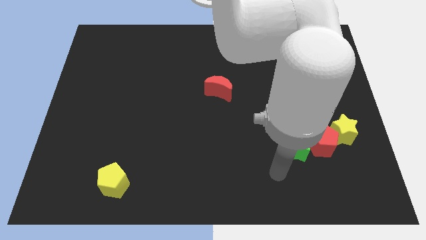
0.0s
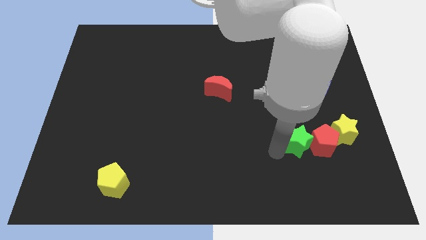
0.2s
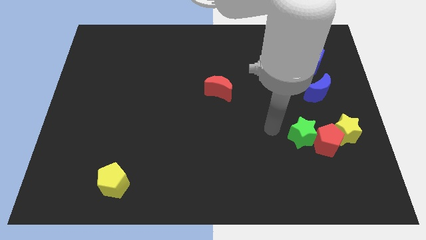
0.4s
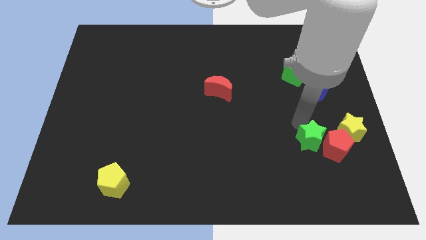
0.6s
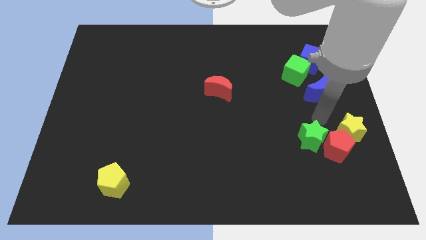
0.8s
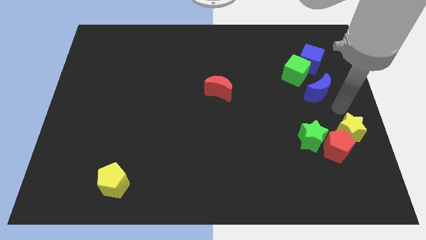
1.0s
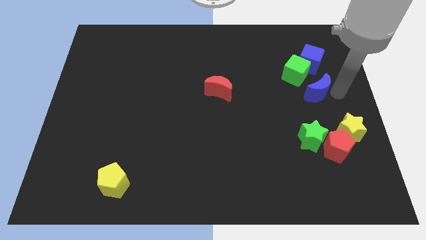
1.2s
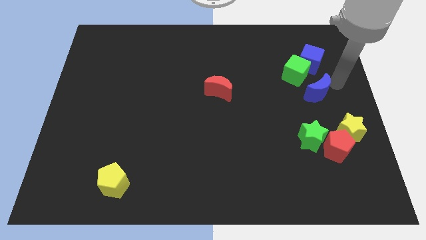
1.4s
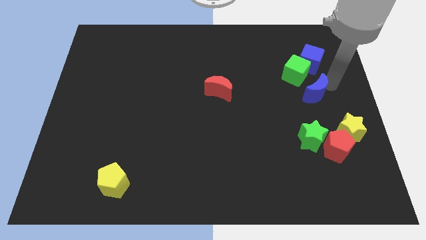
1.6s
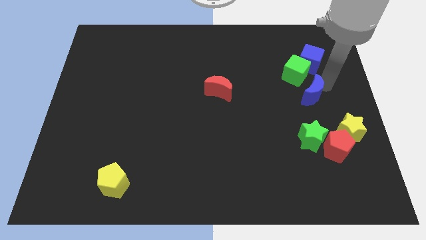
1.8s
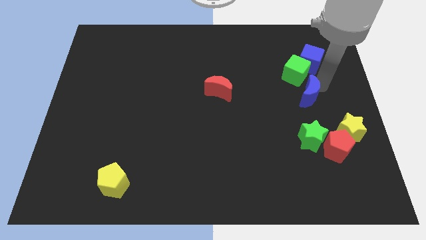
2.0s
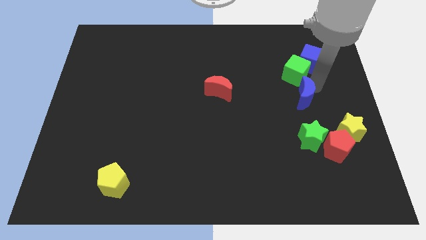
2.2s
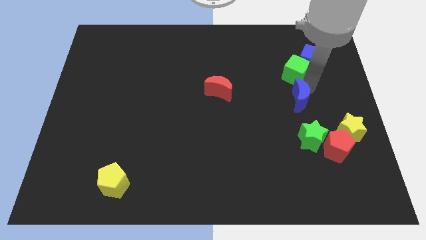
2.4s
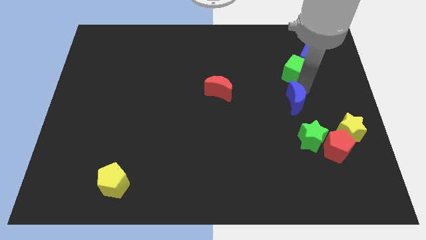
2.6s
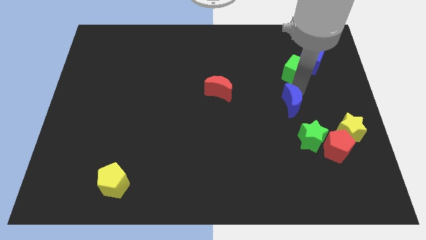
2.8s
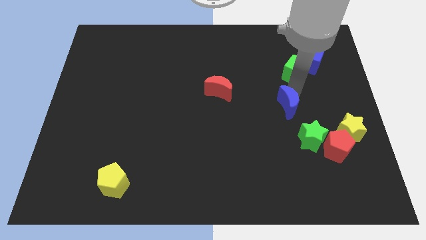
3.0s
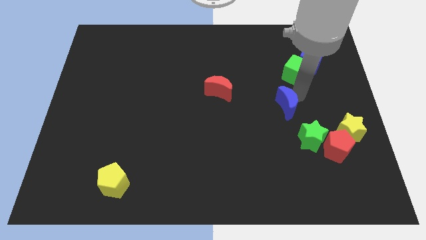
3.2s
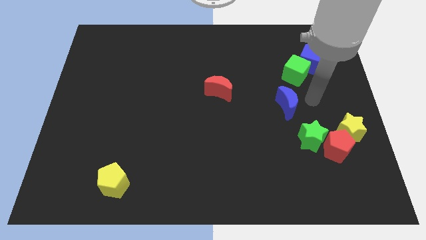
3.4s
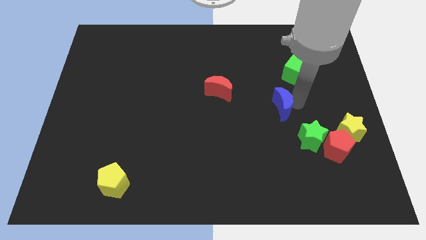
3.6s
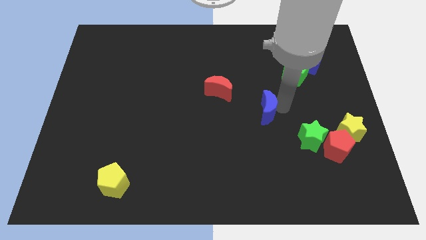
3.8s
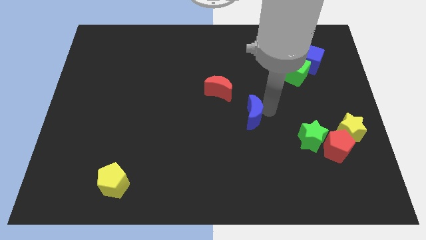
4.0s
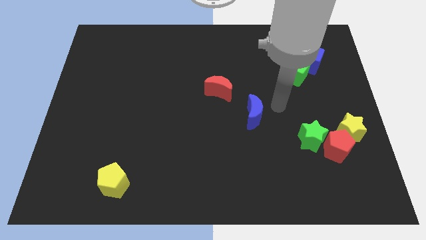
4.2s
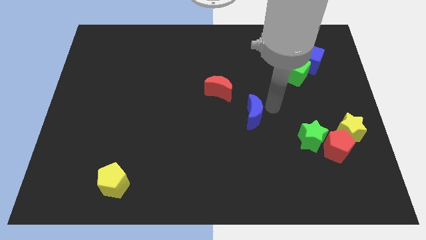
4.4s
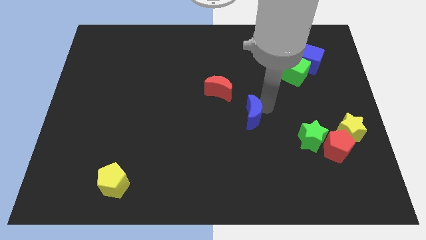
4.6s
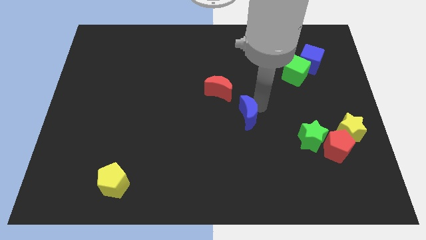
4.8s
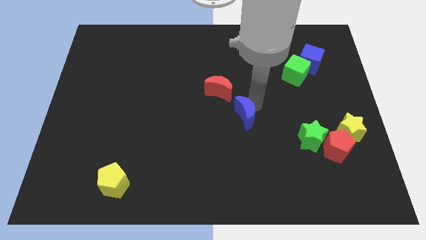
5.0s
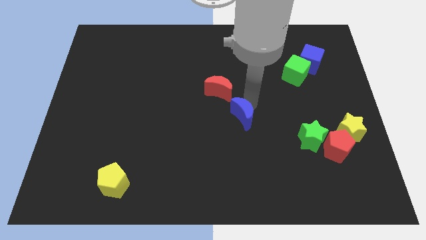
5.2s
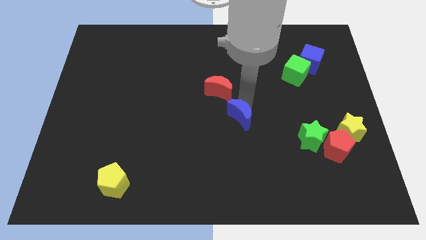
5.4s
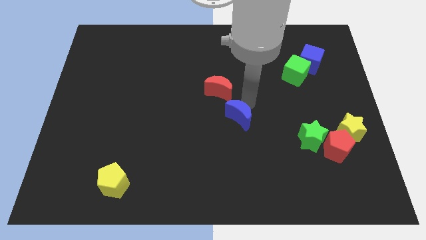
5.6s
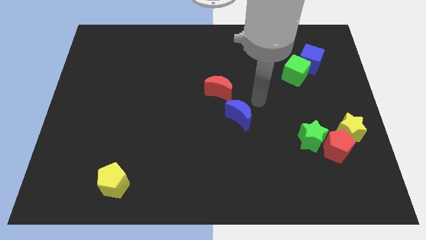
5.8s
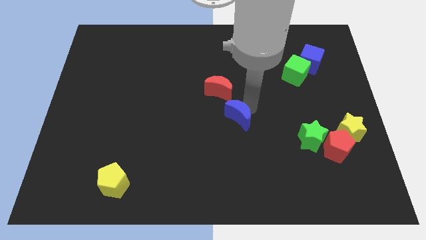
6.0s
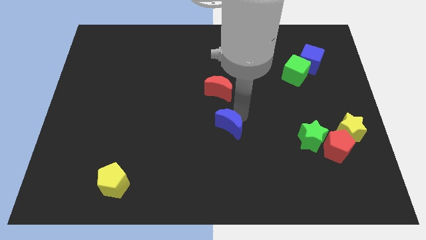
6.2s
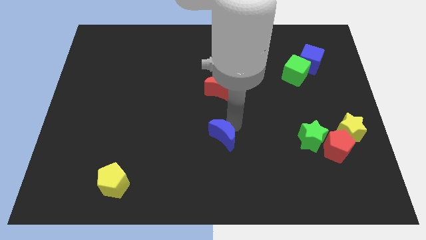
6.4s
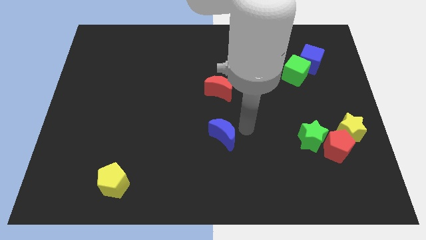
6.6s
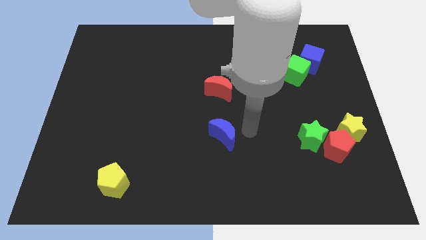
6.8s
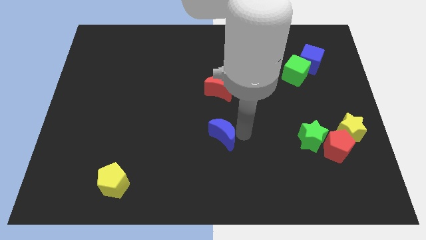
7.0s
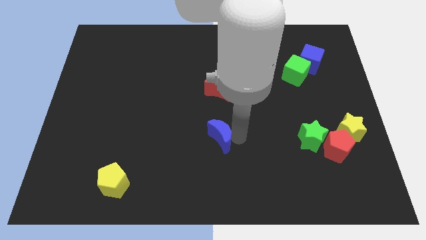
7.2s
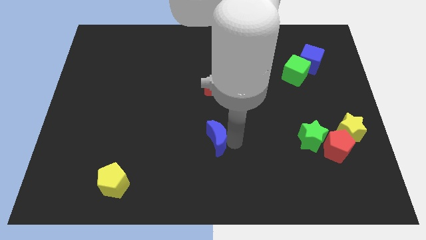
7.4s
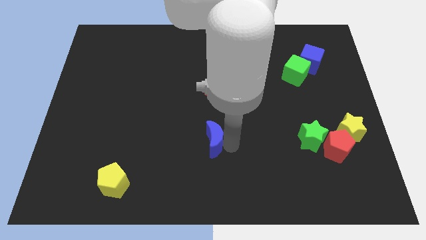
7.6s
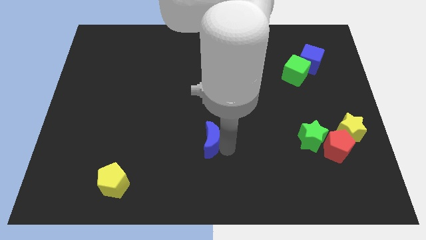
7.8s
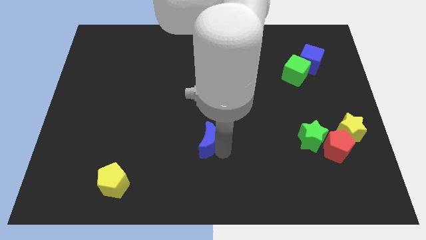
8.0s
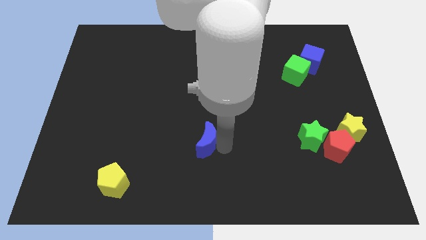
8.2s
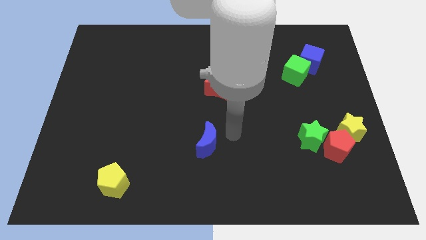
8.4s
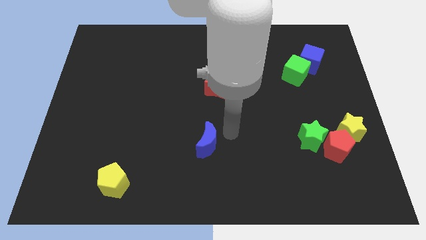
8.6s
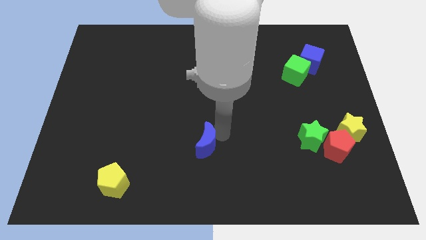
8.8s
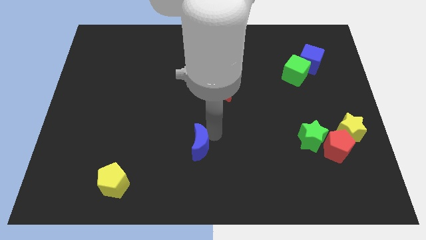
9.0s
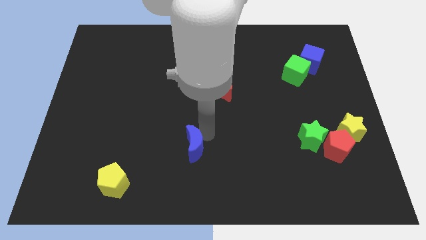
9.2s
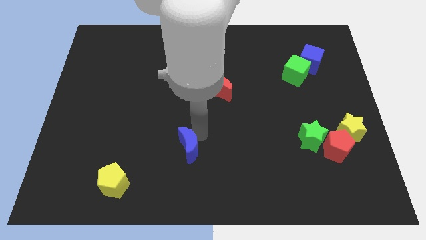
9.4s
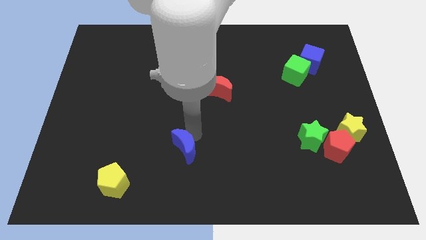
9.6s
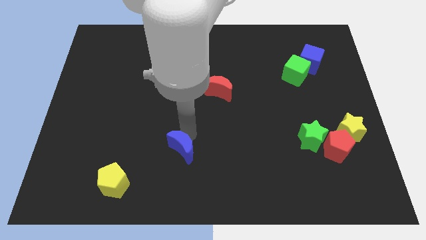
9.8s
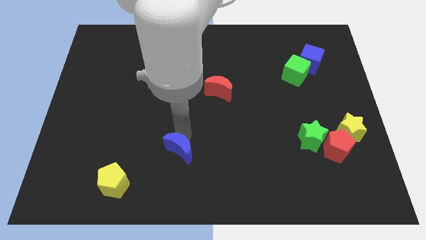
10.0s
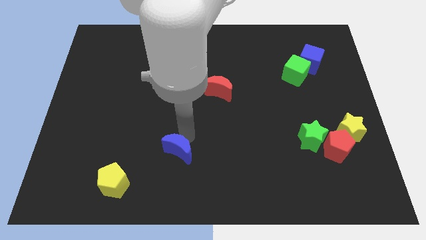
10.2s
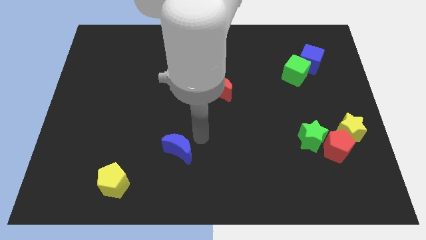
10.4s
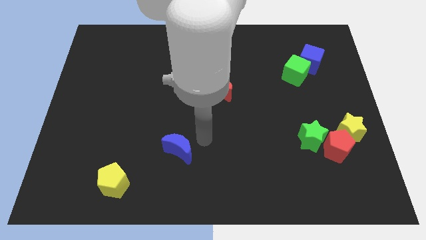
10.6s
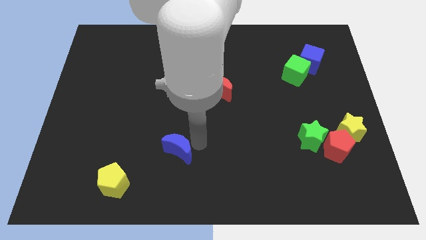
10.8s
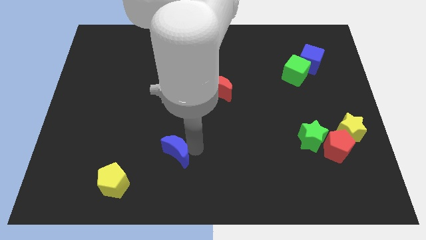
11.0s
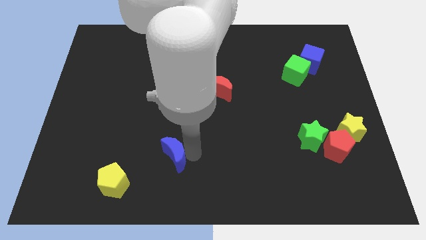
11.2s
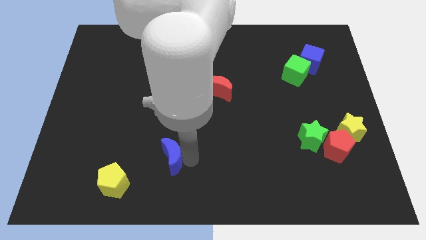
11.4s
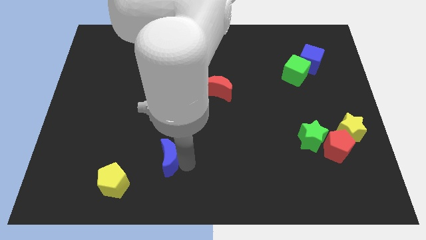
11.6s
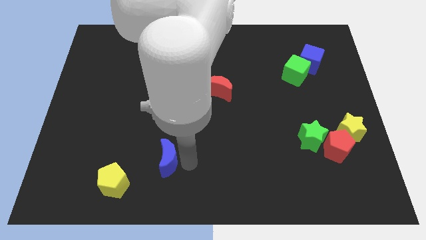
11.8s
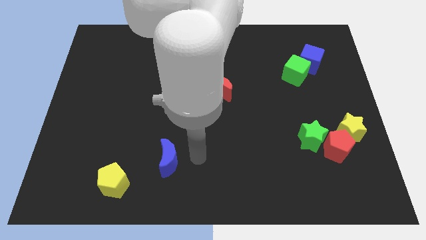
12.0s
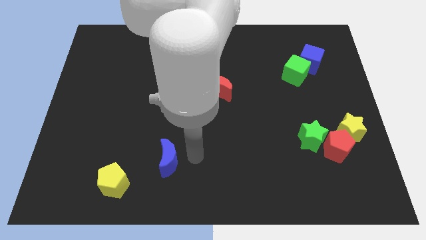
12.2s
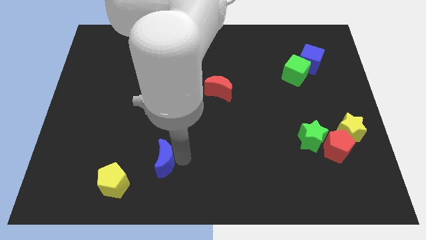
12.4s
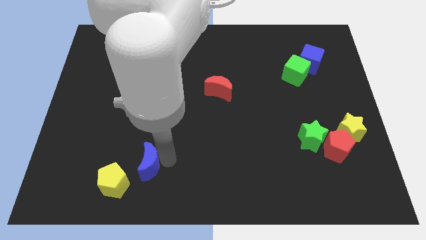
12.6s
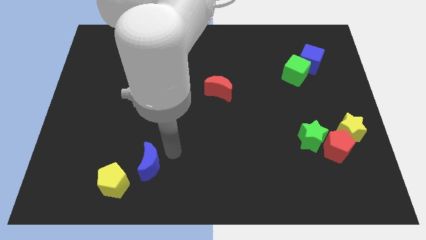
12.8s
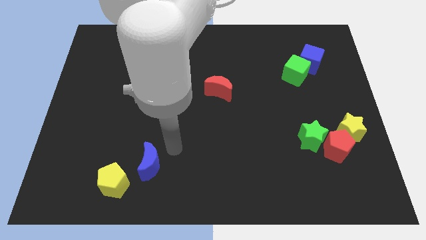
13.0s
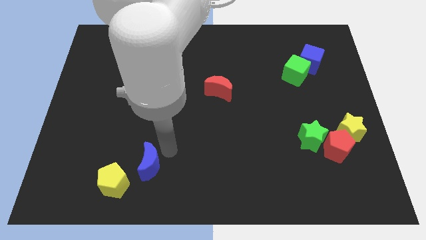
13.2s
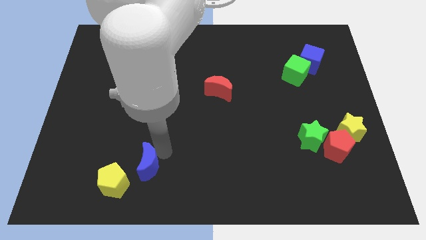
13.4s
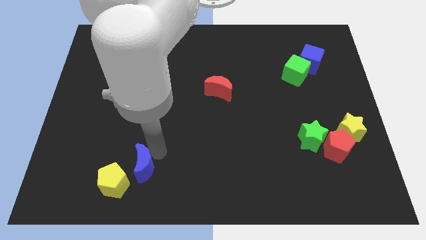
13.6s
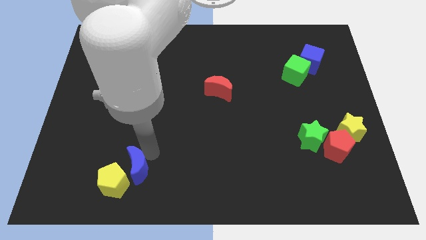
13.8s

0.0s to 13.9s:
push the blue moon close to the yellow pentagon
